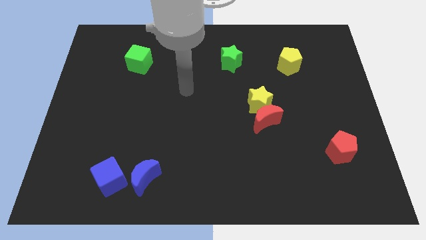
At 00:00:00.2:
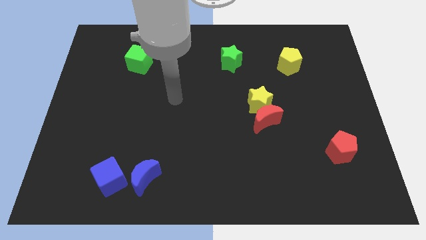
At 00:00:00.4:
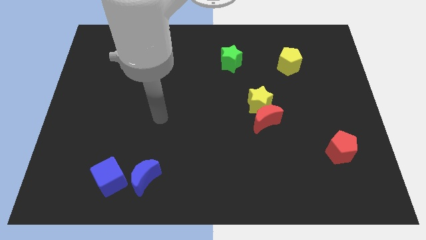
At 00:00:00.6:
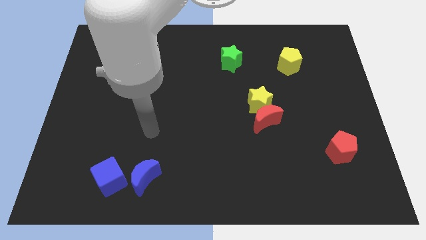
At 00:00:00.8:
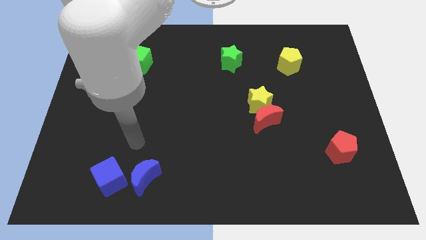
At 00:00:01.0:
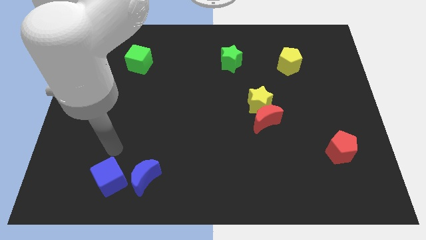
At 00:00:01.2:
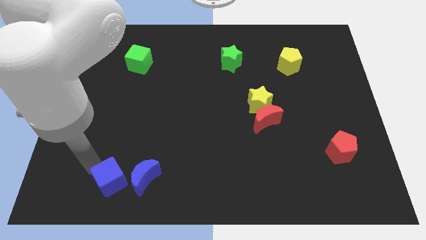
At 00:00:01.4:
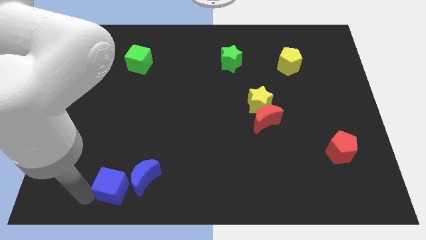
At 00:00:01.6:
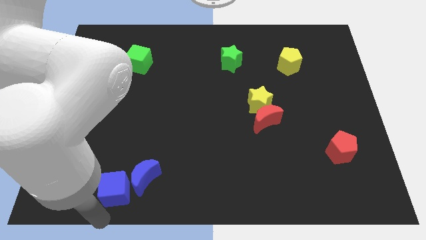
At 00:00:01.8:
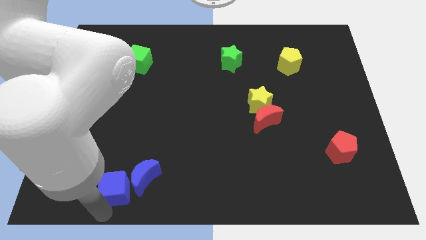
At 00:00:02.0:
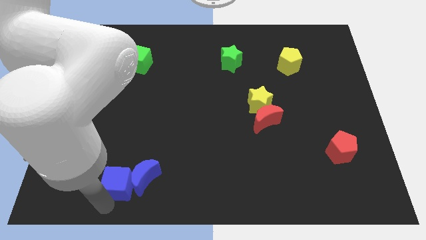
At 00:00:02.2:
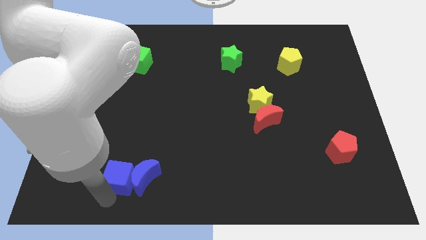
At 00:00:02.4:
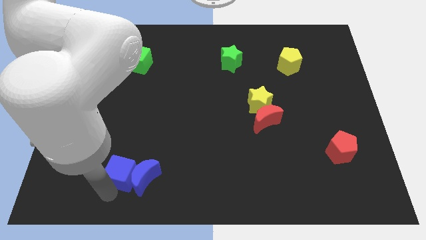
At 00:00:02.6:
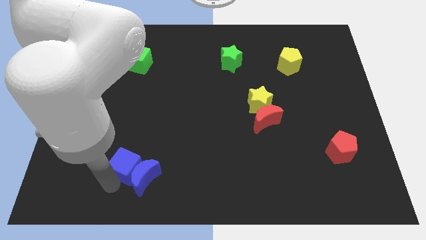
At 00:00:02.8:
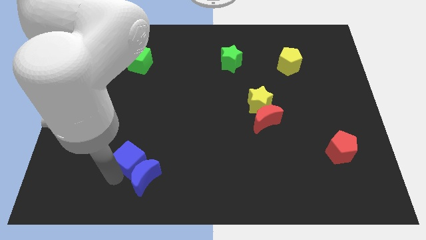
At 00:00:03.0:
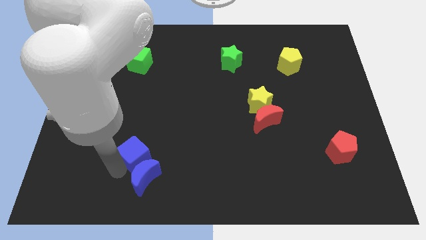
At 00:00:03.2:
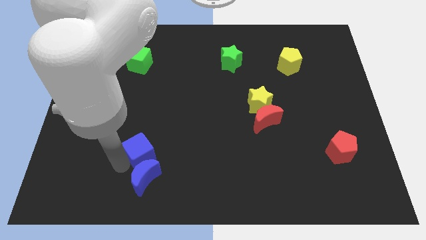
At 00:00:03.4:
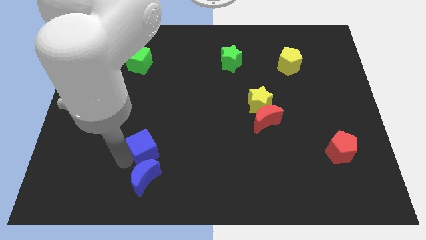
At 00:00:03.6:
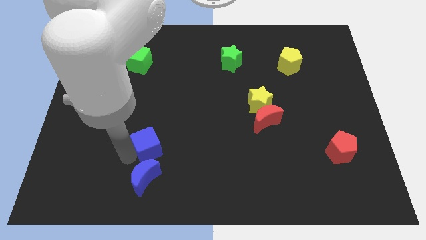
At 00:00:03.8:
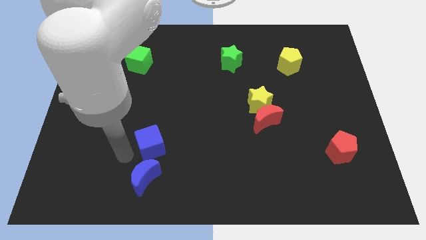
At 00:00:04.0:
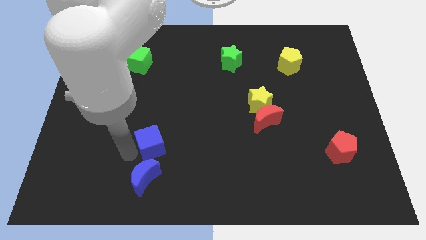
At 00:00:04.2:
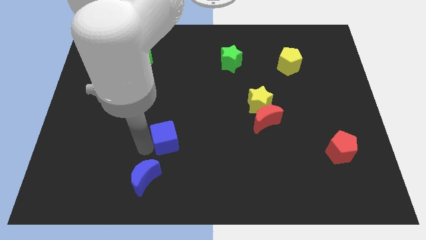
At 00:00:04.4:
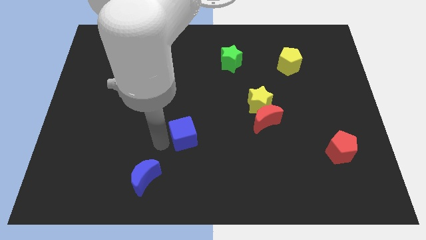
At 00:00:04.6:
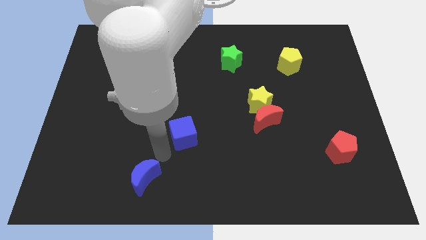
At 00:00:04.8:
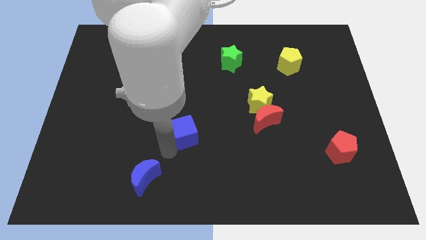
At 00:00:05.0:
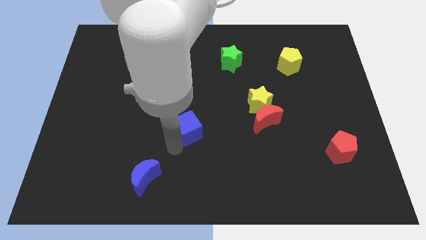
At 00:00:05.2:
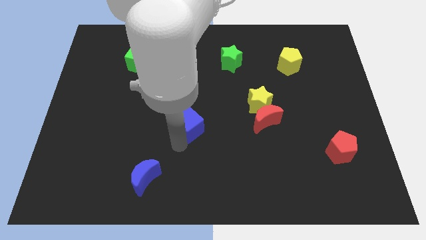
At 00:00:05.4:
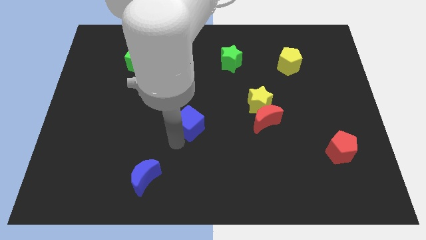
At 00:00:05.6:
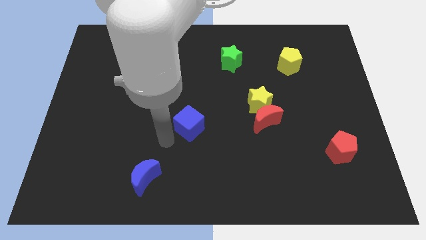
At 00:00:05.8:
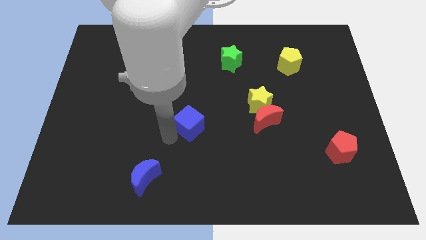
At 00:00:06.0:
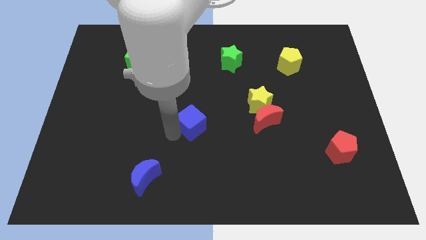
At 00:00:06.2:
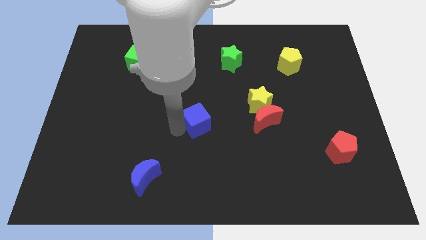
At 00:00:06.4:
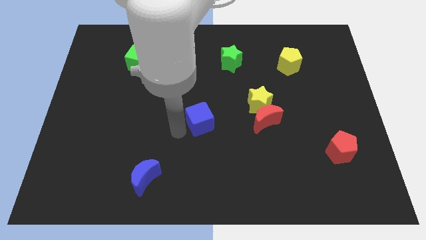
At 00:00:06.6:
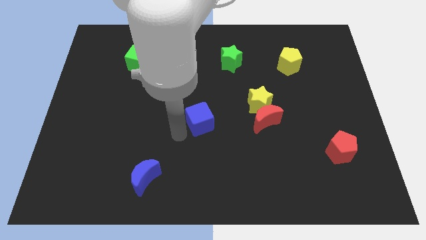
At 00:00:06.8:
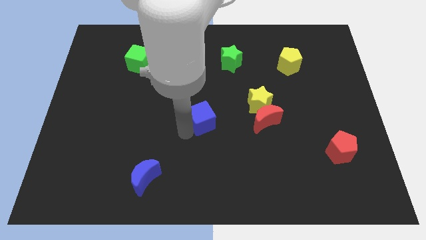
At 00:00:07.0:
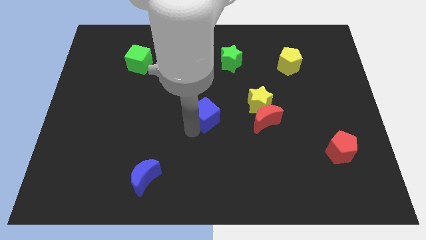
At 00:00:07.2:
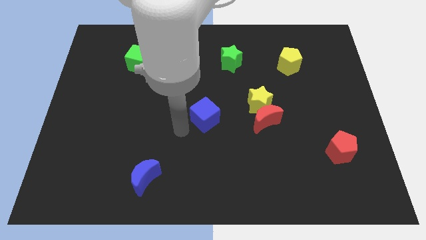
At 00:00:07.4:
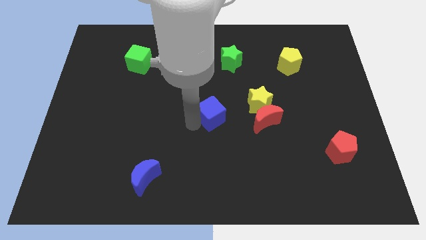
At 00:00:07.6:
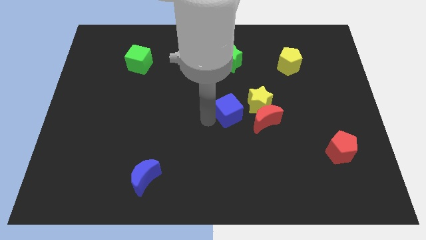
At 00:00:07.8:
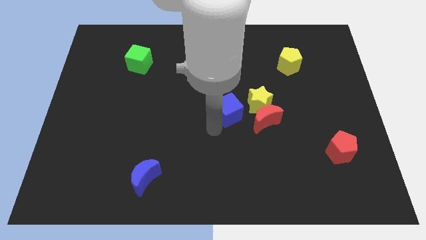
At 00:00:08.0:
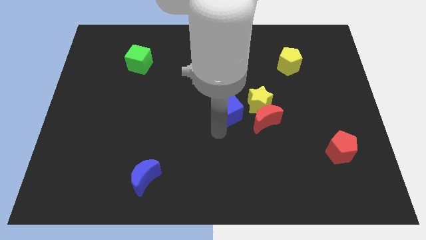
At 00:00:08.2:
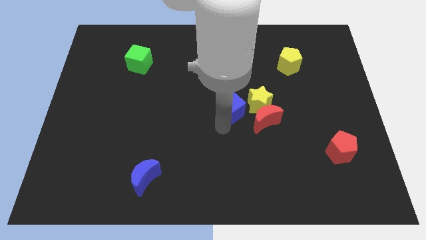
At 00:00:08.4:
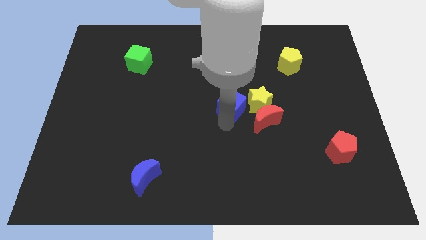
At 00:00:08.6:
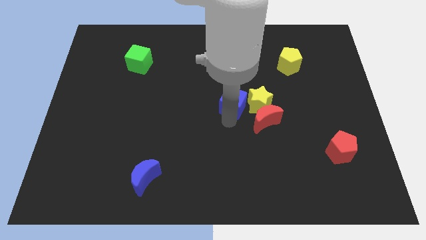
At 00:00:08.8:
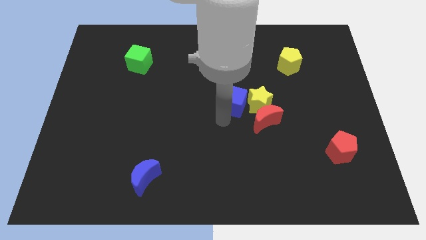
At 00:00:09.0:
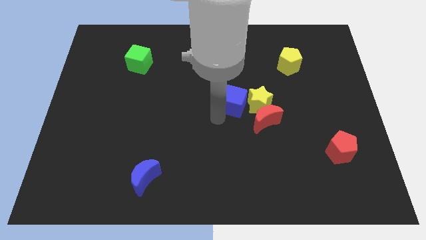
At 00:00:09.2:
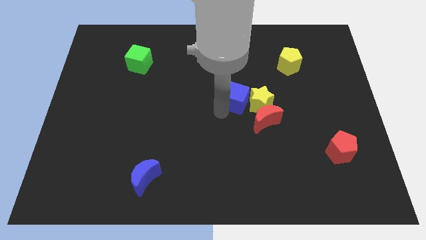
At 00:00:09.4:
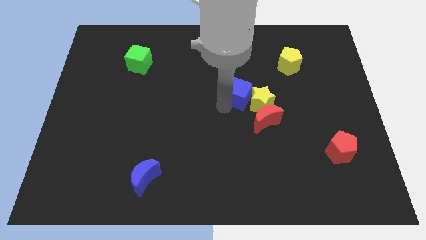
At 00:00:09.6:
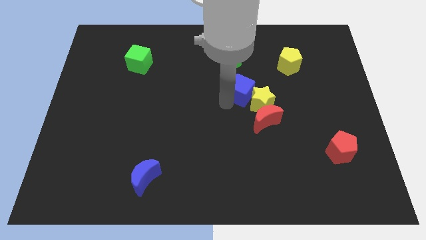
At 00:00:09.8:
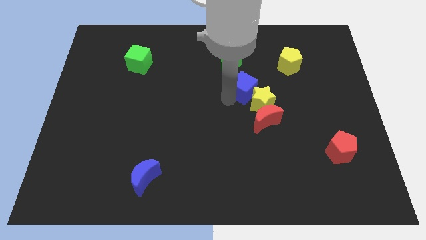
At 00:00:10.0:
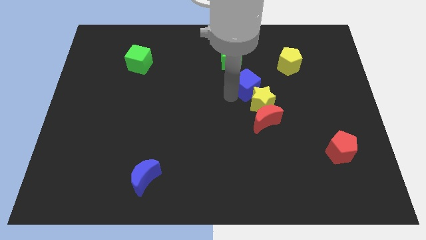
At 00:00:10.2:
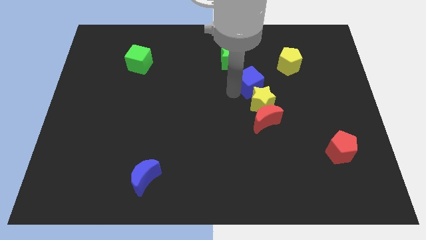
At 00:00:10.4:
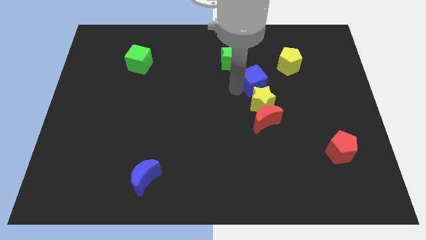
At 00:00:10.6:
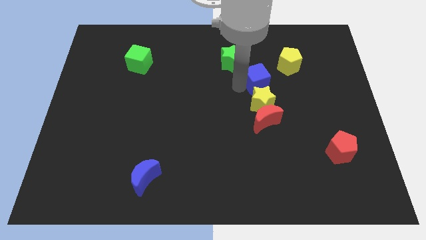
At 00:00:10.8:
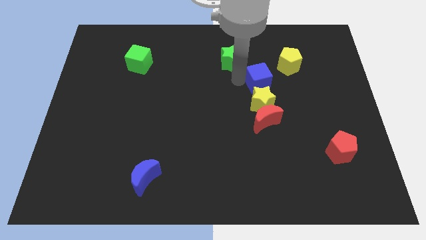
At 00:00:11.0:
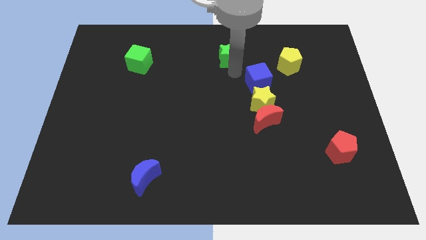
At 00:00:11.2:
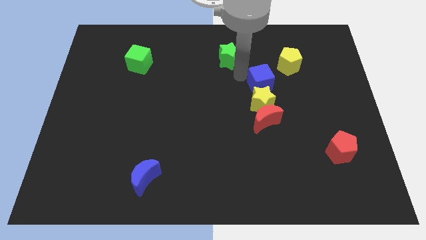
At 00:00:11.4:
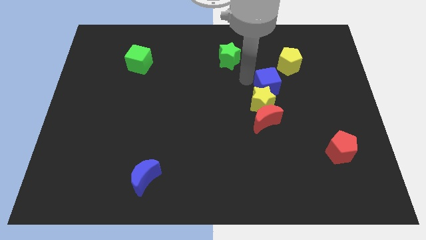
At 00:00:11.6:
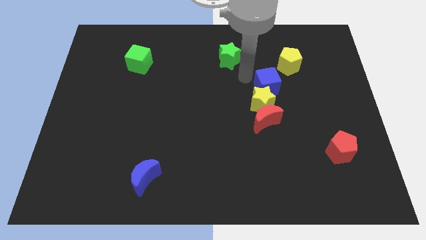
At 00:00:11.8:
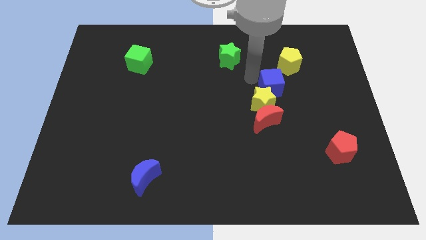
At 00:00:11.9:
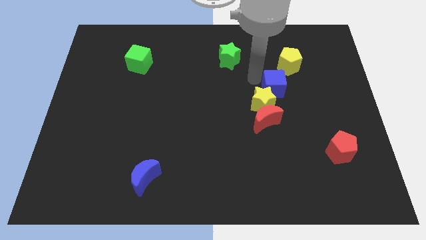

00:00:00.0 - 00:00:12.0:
move the blue cube to the bottom side of the yellow pentagon

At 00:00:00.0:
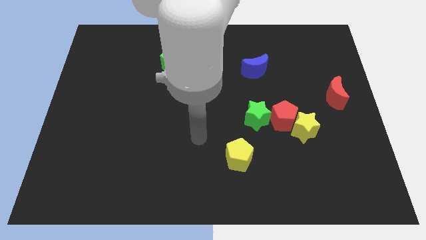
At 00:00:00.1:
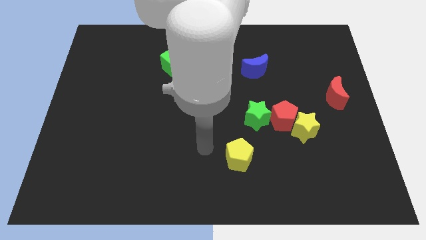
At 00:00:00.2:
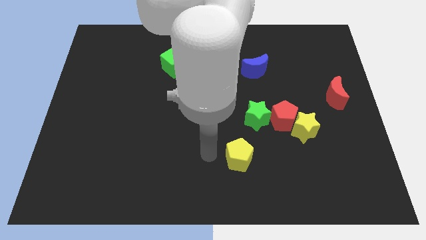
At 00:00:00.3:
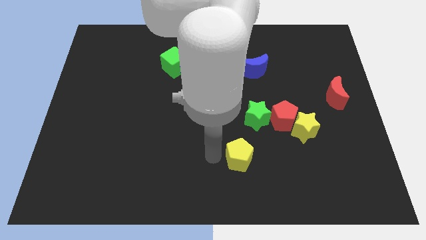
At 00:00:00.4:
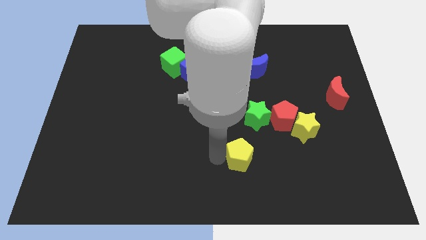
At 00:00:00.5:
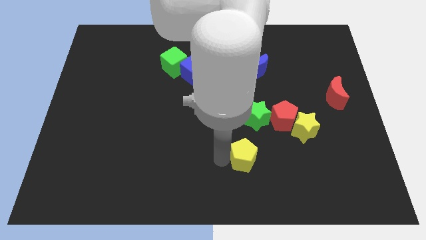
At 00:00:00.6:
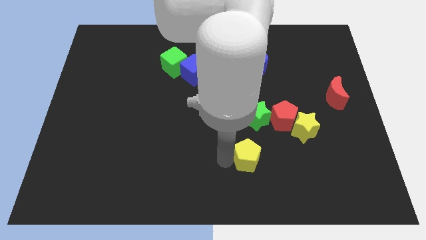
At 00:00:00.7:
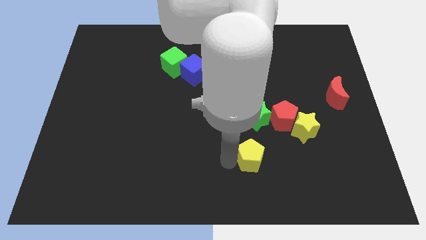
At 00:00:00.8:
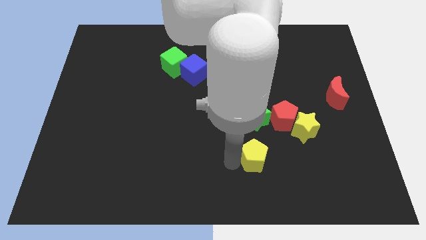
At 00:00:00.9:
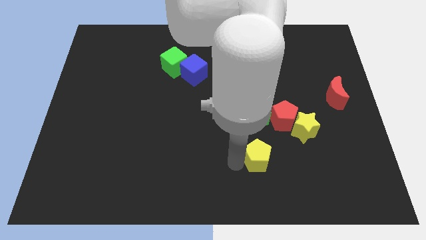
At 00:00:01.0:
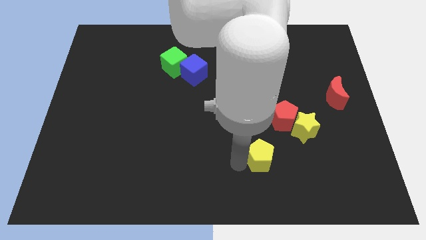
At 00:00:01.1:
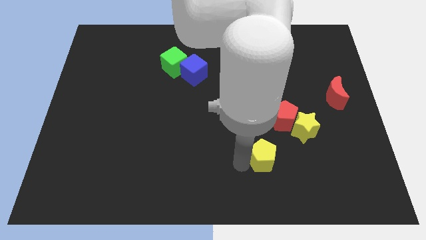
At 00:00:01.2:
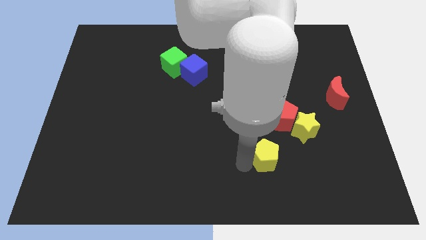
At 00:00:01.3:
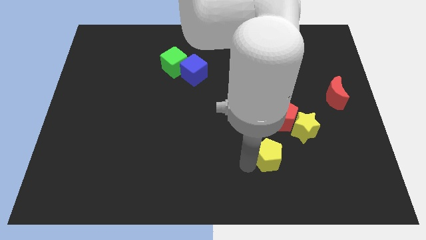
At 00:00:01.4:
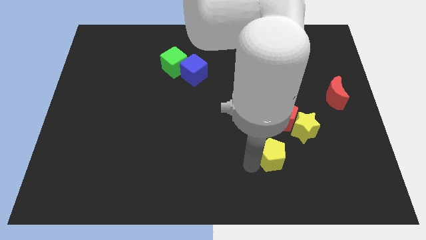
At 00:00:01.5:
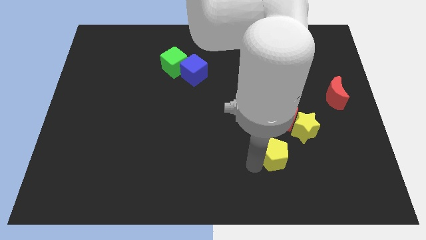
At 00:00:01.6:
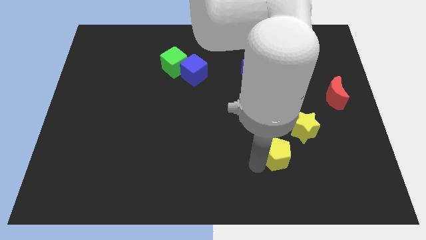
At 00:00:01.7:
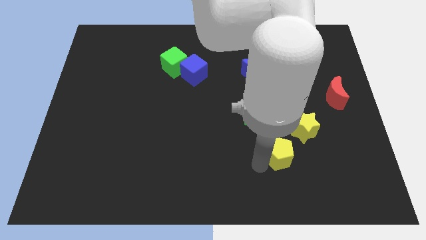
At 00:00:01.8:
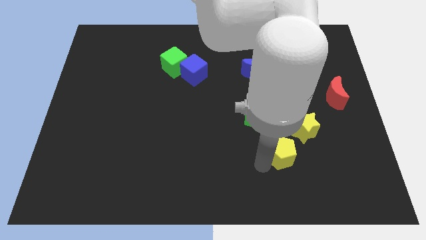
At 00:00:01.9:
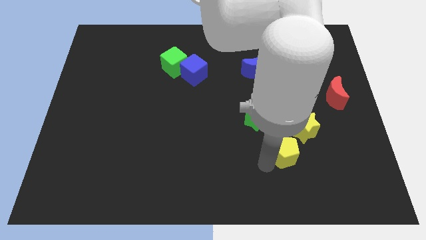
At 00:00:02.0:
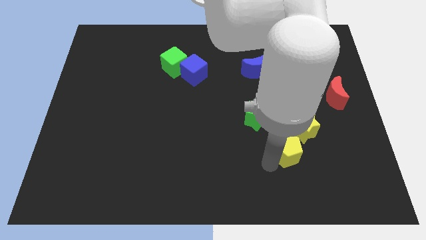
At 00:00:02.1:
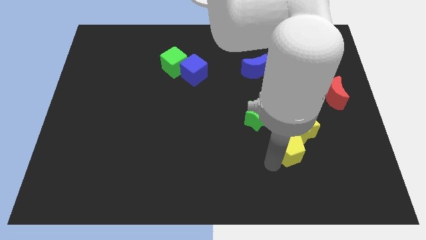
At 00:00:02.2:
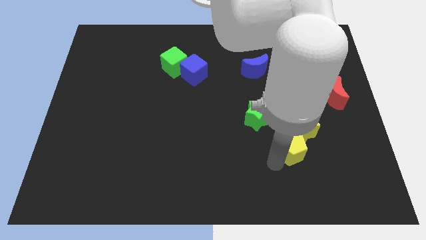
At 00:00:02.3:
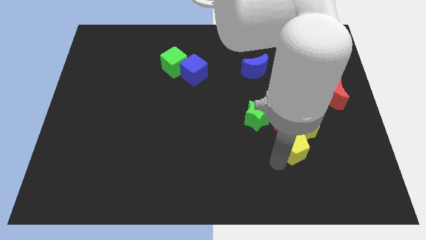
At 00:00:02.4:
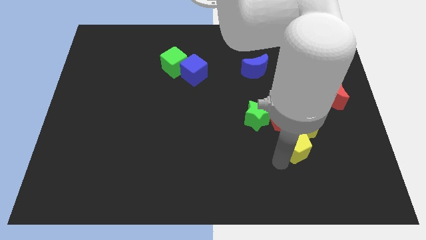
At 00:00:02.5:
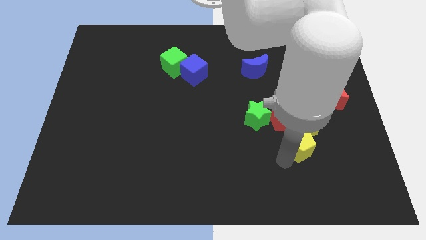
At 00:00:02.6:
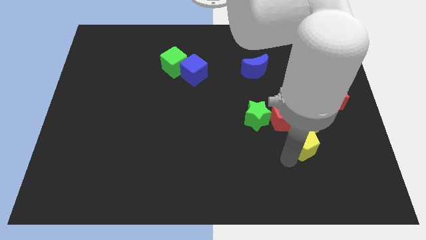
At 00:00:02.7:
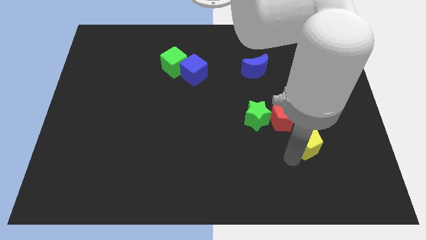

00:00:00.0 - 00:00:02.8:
push the yellow pentagon to the bottom right side of the yellow star
